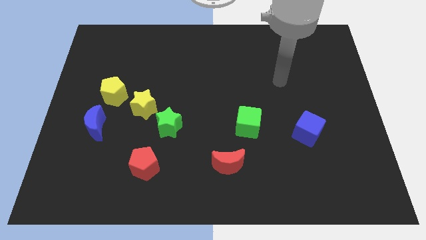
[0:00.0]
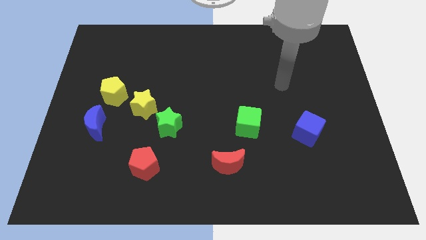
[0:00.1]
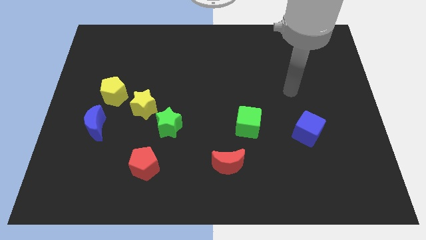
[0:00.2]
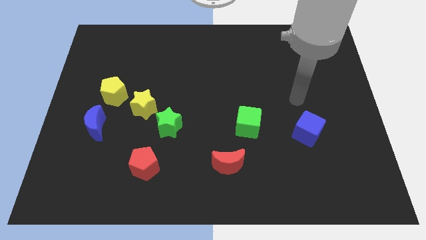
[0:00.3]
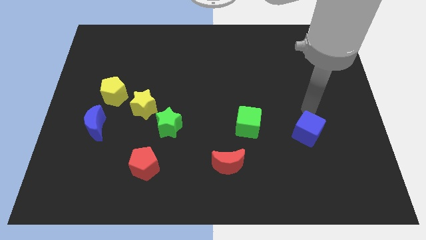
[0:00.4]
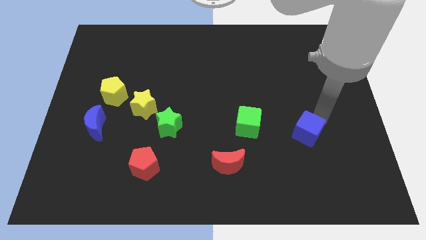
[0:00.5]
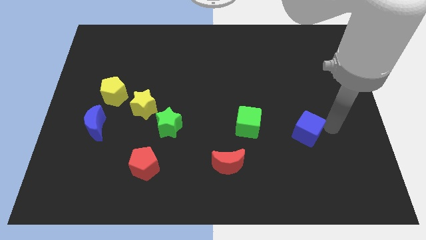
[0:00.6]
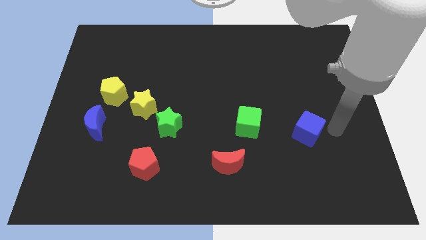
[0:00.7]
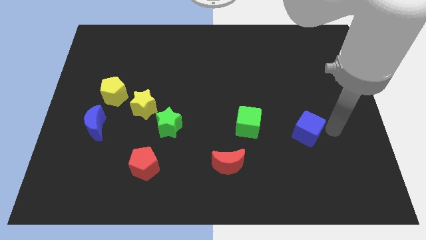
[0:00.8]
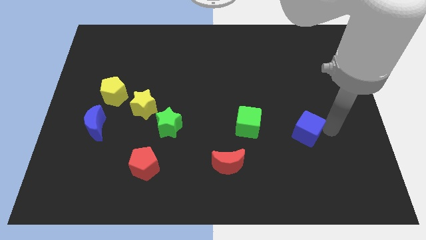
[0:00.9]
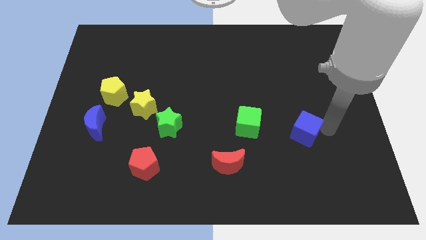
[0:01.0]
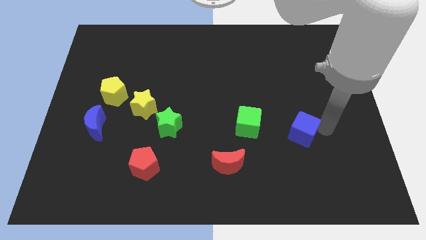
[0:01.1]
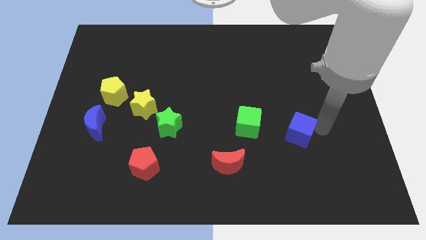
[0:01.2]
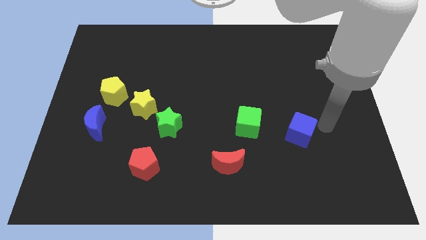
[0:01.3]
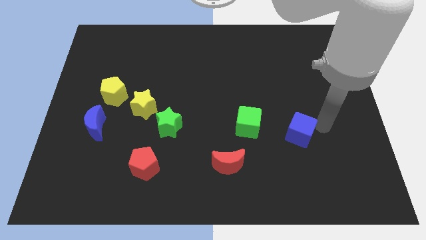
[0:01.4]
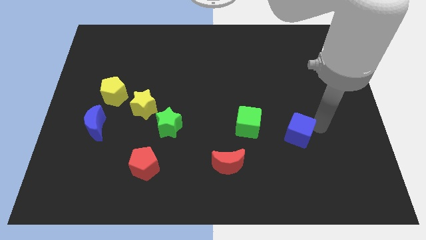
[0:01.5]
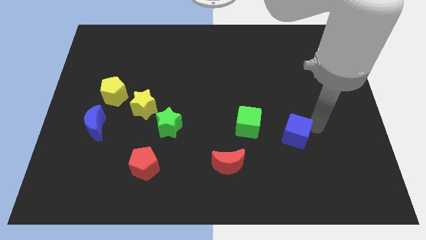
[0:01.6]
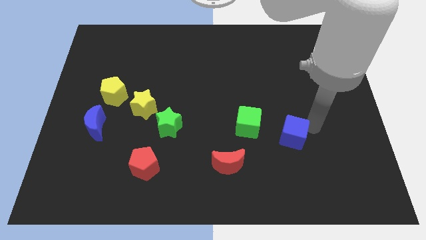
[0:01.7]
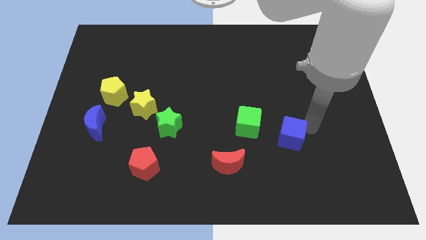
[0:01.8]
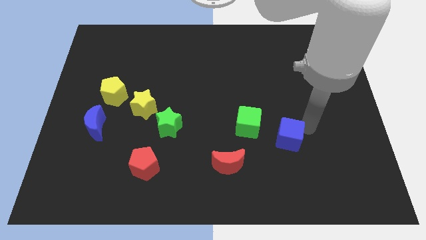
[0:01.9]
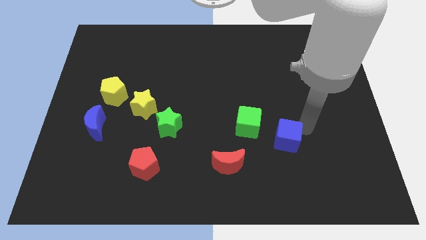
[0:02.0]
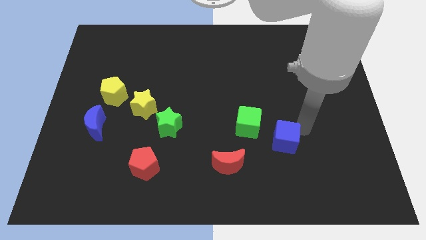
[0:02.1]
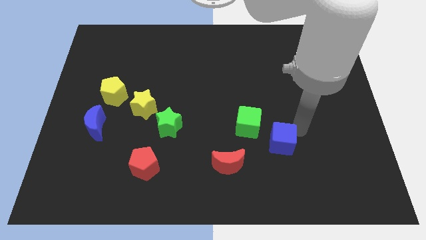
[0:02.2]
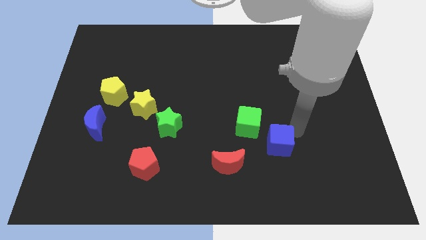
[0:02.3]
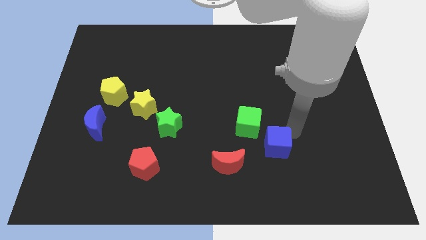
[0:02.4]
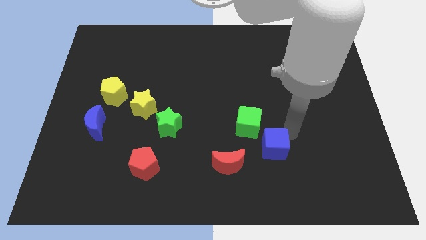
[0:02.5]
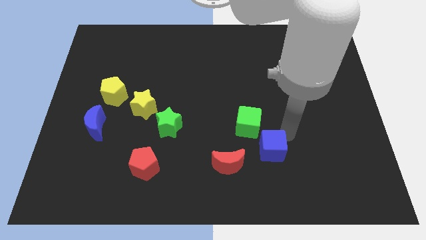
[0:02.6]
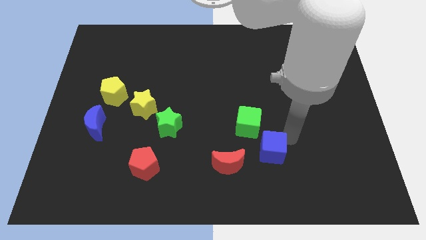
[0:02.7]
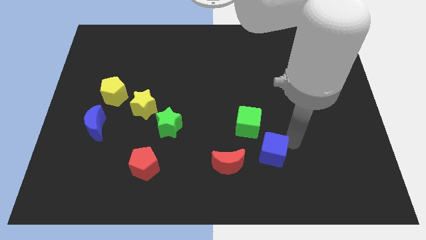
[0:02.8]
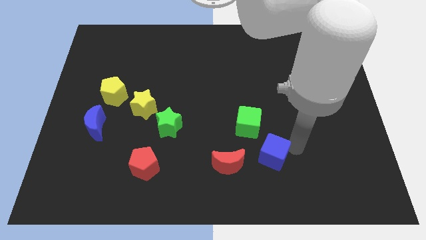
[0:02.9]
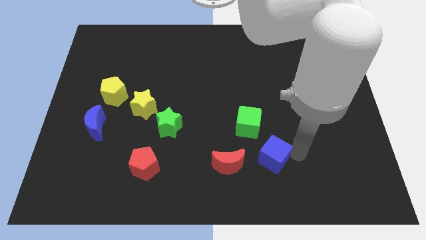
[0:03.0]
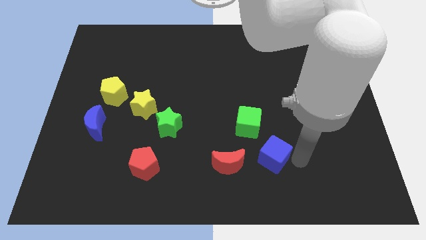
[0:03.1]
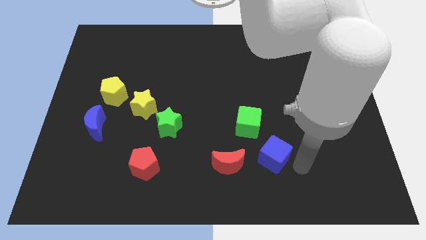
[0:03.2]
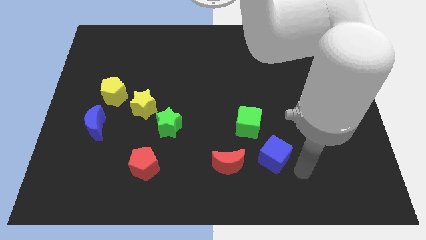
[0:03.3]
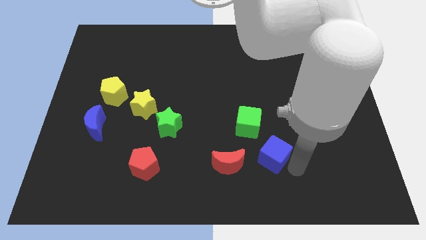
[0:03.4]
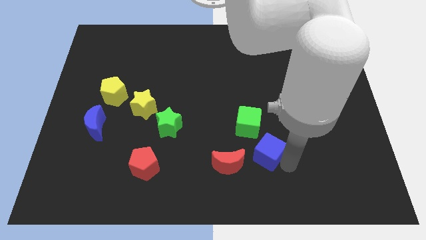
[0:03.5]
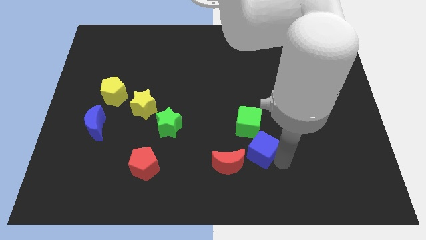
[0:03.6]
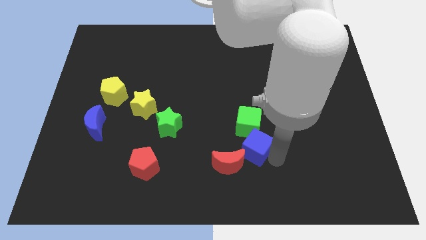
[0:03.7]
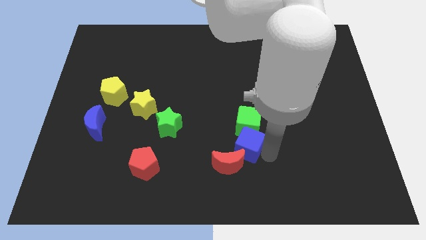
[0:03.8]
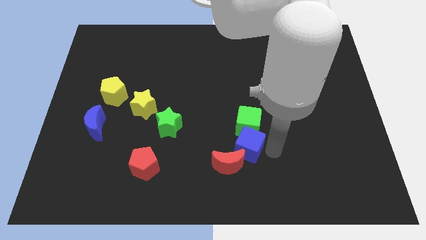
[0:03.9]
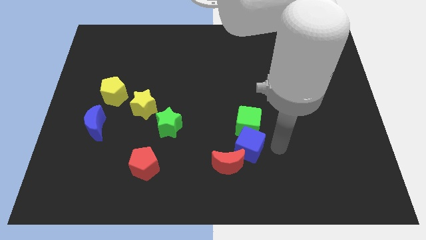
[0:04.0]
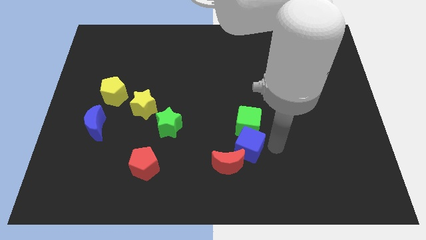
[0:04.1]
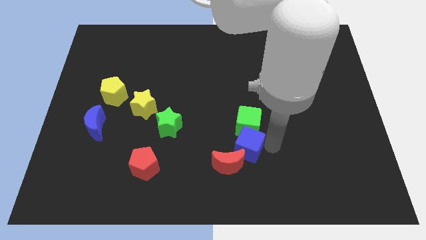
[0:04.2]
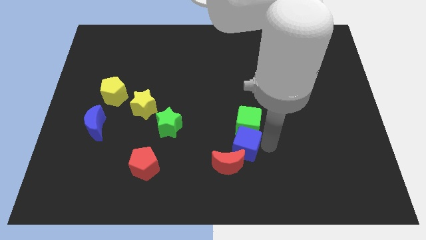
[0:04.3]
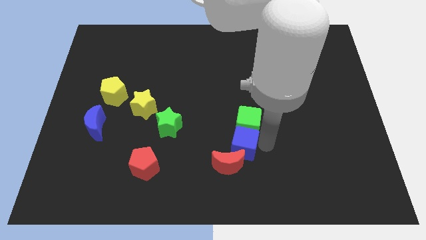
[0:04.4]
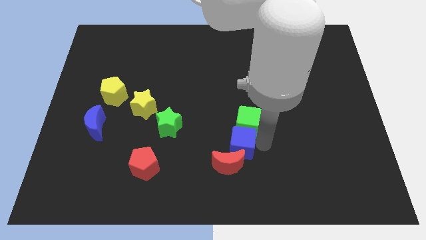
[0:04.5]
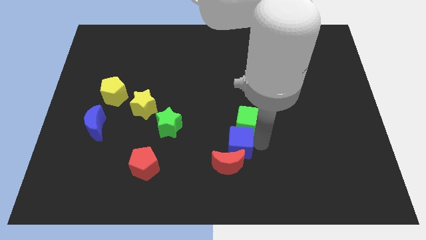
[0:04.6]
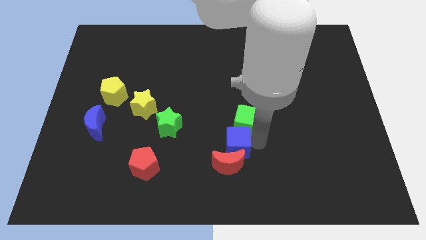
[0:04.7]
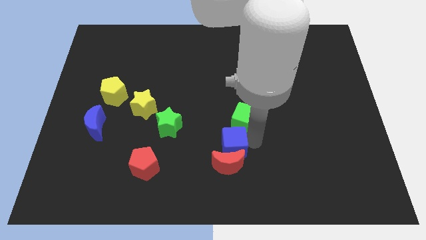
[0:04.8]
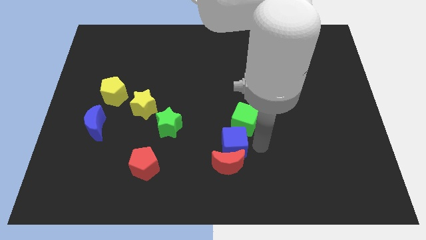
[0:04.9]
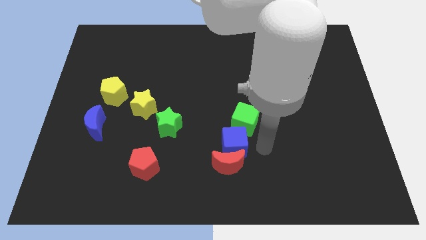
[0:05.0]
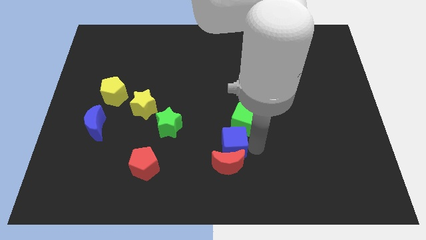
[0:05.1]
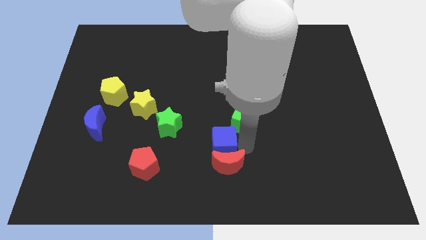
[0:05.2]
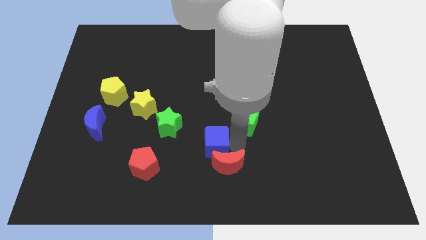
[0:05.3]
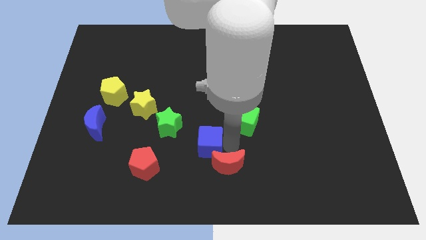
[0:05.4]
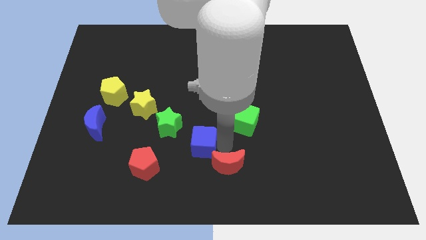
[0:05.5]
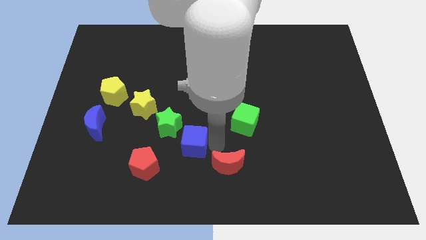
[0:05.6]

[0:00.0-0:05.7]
push the blue cube to the top right side of the red pentagon

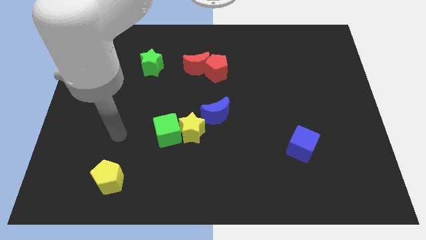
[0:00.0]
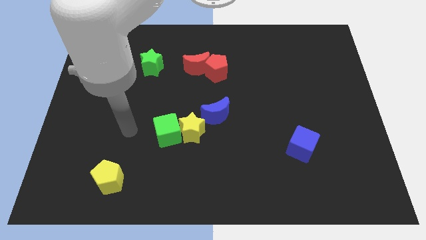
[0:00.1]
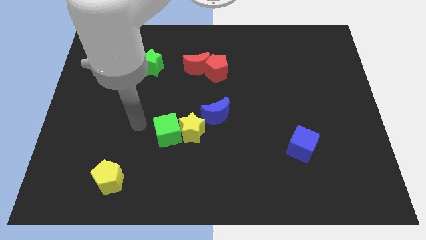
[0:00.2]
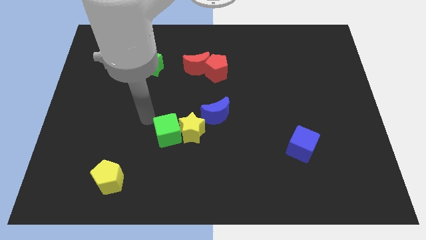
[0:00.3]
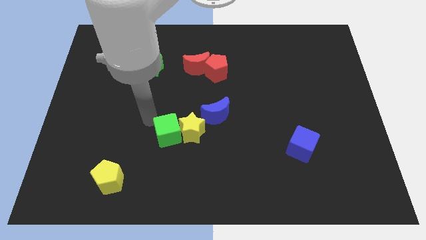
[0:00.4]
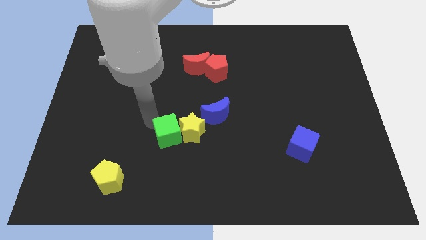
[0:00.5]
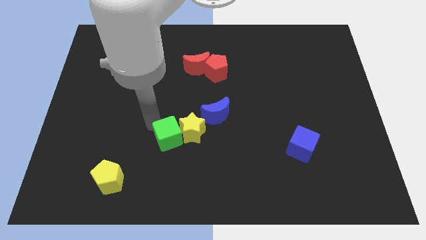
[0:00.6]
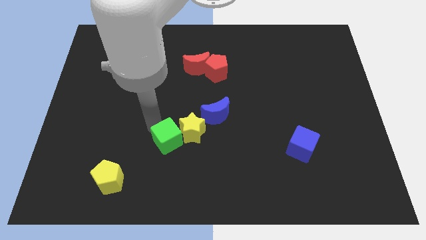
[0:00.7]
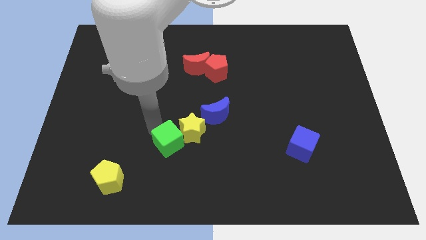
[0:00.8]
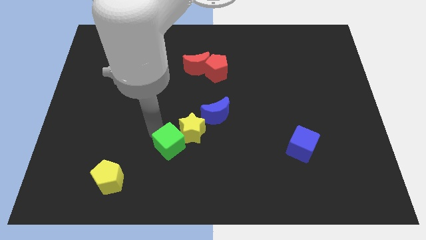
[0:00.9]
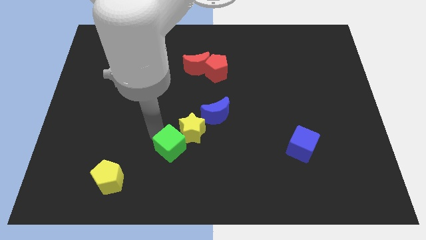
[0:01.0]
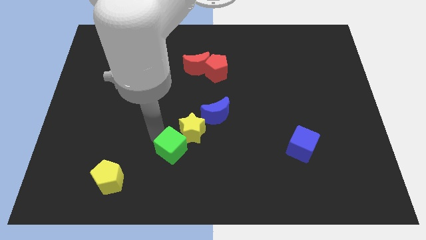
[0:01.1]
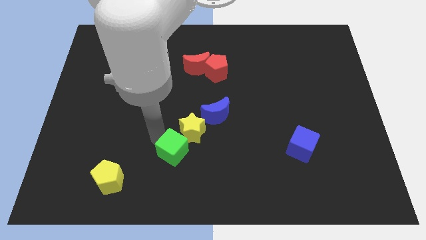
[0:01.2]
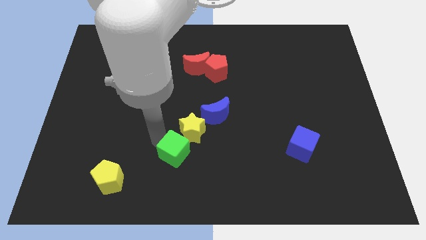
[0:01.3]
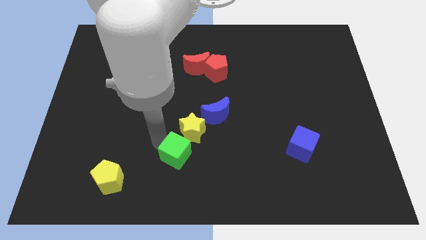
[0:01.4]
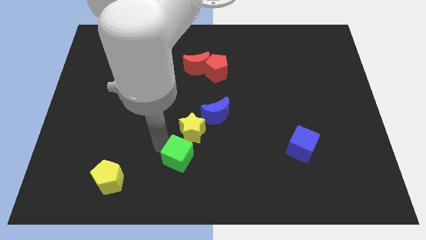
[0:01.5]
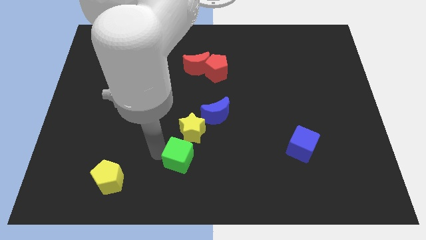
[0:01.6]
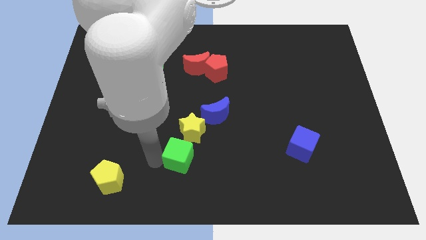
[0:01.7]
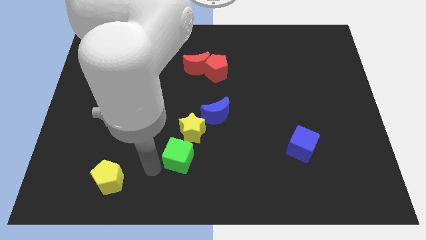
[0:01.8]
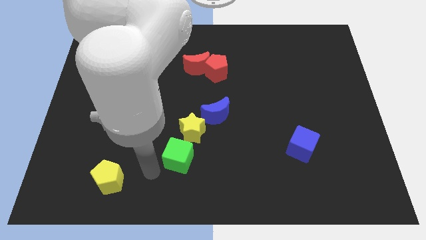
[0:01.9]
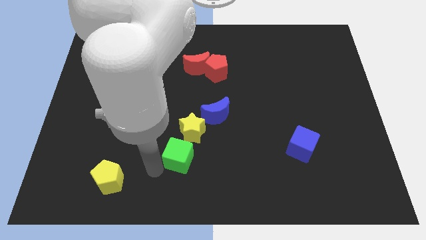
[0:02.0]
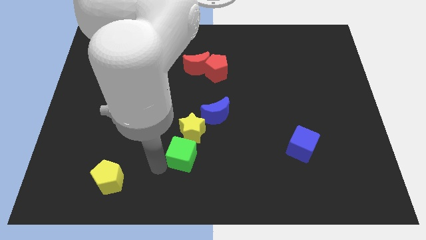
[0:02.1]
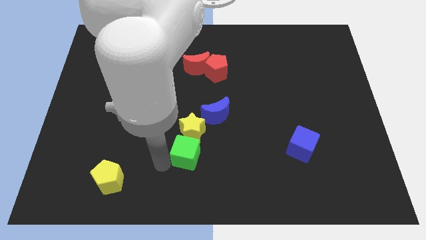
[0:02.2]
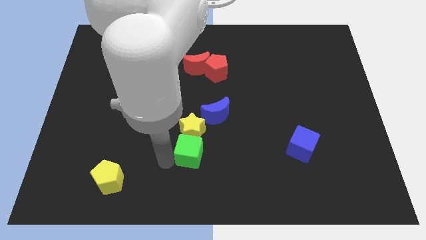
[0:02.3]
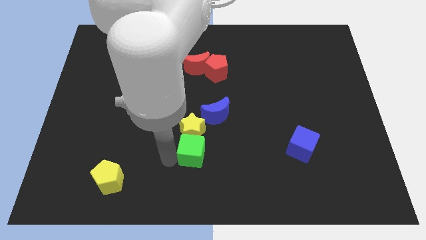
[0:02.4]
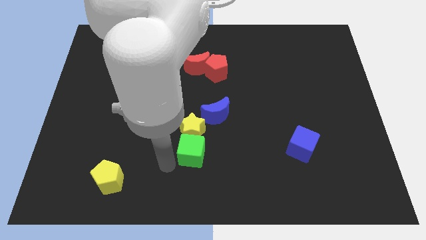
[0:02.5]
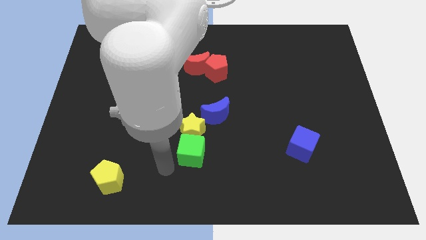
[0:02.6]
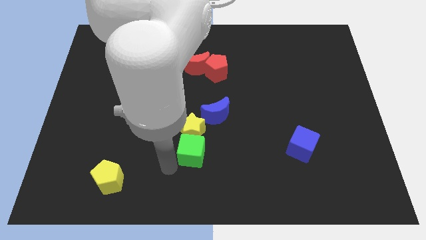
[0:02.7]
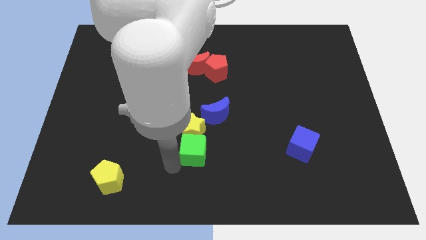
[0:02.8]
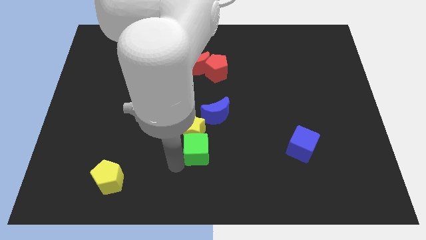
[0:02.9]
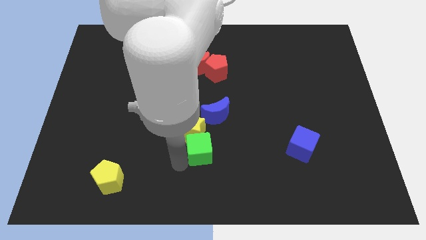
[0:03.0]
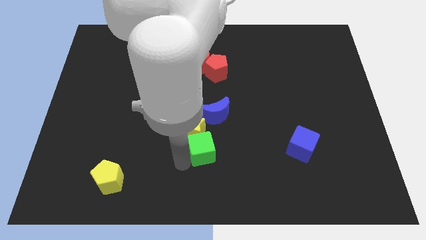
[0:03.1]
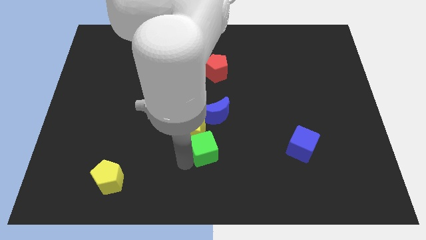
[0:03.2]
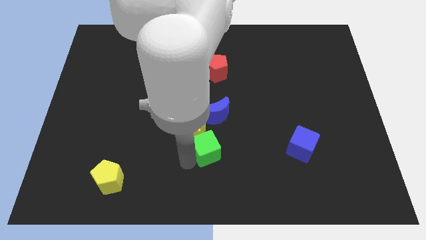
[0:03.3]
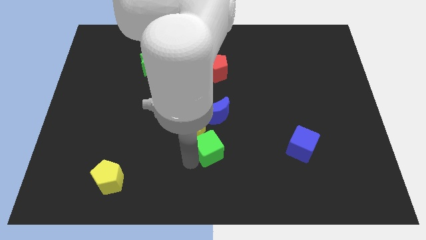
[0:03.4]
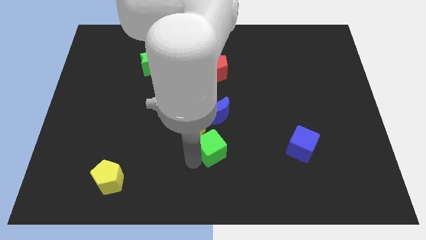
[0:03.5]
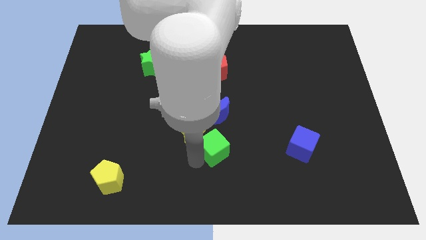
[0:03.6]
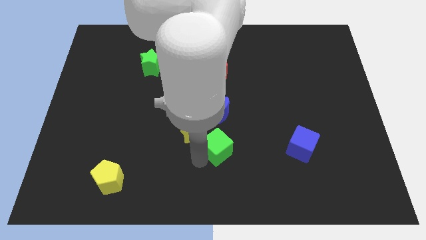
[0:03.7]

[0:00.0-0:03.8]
put the green cube right of the yellow star
